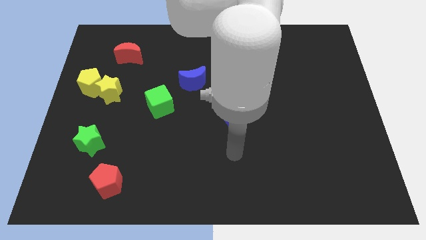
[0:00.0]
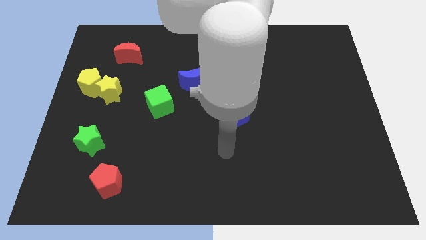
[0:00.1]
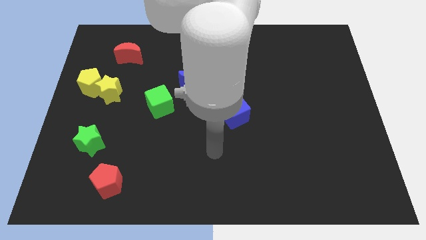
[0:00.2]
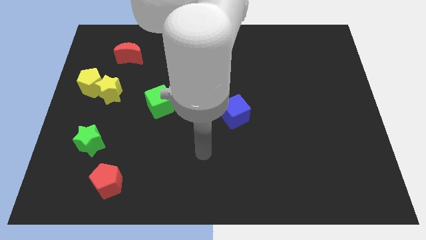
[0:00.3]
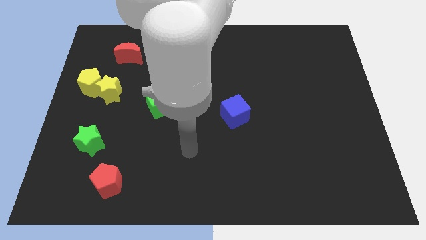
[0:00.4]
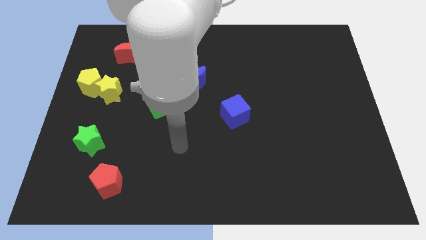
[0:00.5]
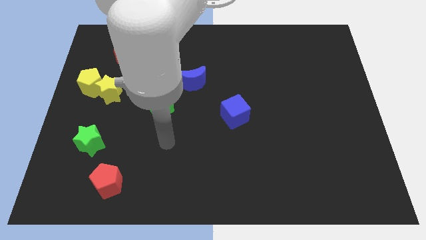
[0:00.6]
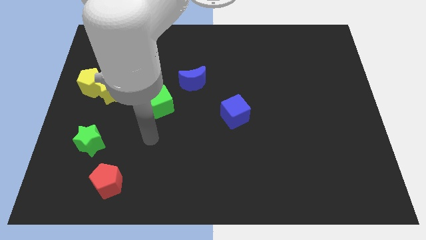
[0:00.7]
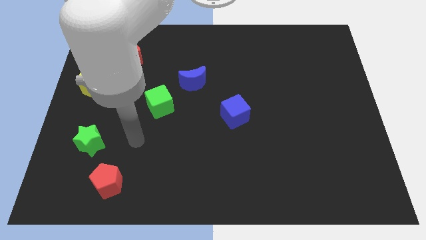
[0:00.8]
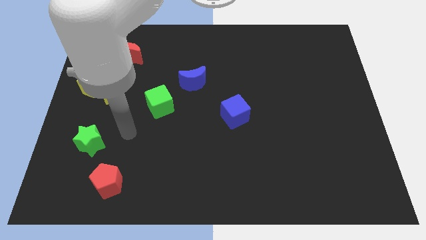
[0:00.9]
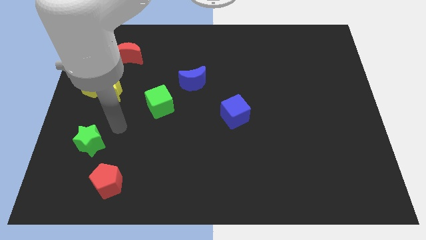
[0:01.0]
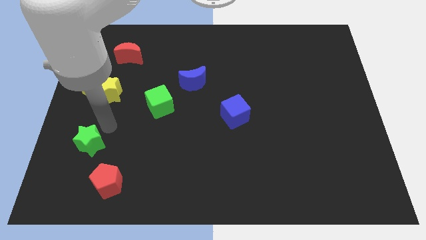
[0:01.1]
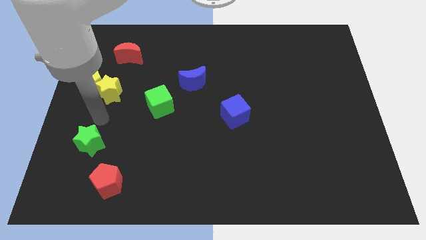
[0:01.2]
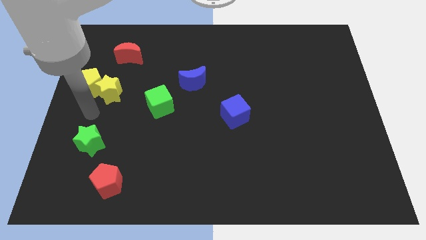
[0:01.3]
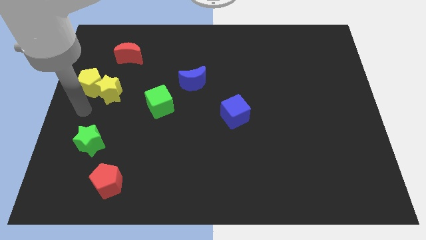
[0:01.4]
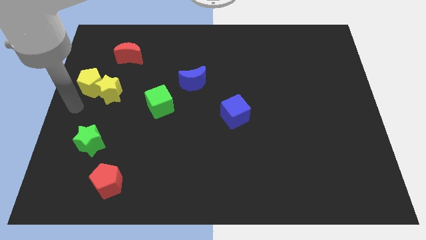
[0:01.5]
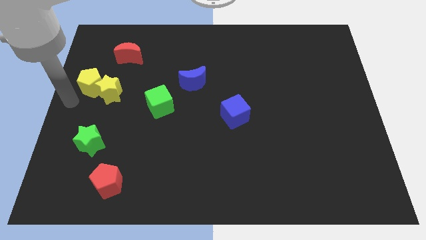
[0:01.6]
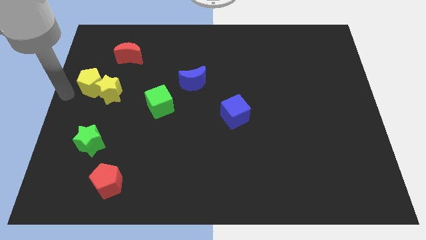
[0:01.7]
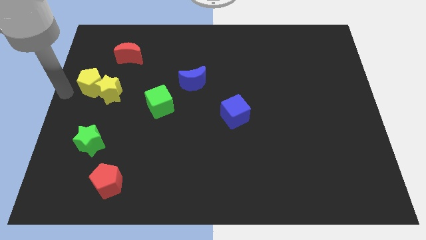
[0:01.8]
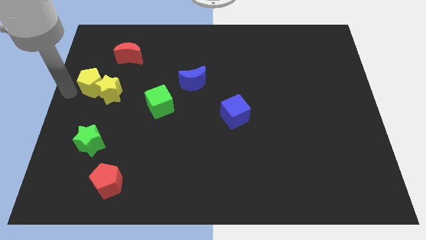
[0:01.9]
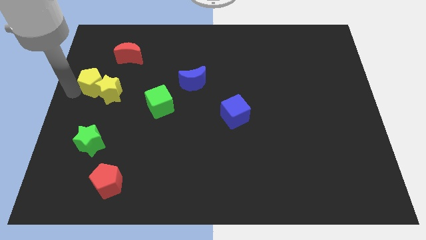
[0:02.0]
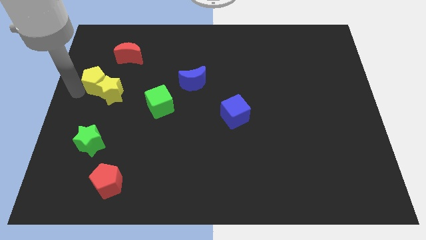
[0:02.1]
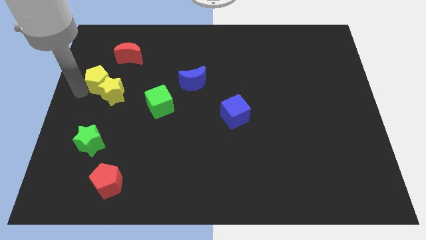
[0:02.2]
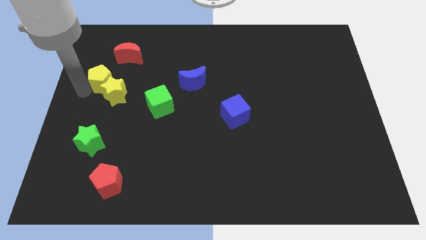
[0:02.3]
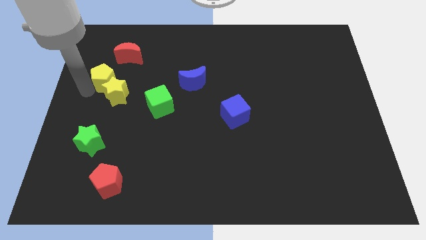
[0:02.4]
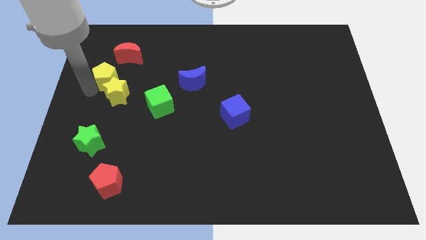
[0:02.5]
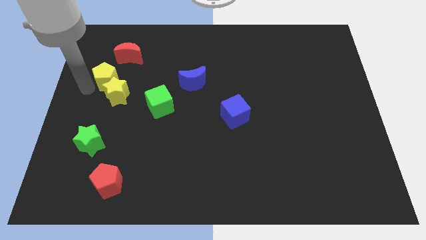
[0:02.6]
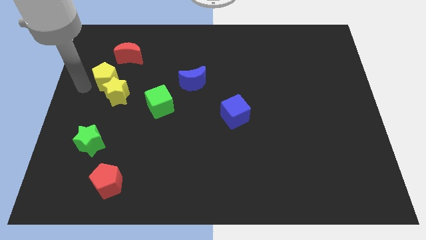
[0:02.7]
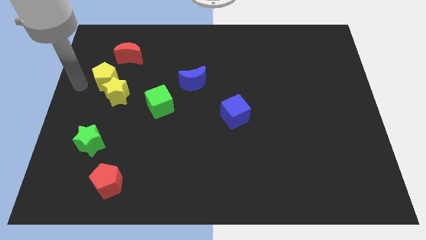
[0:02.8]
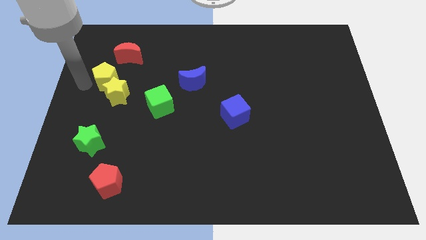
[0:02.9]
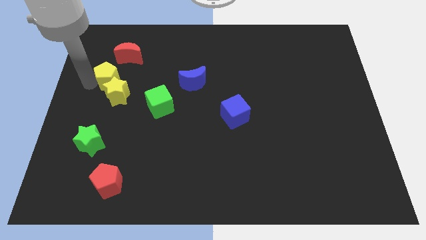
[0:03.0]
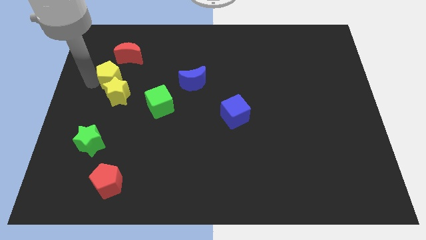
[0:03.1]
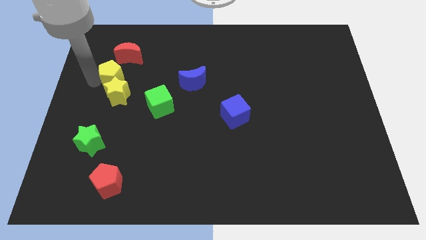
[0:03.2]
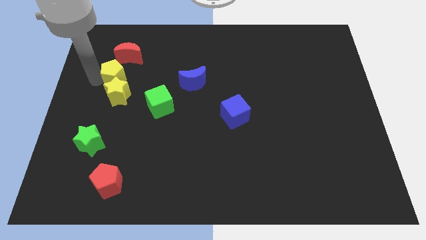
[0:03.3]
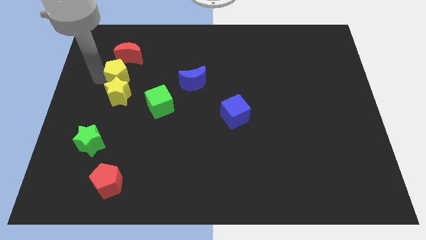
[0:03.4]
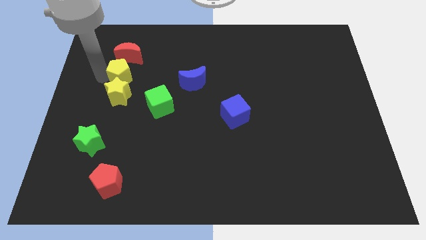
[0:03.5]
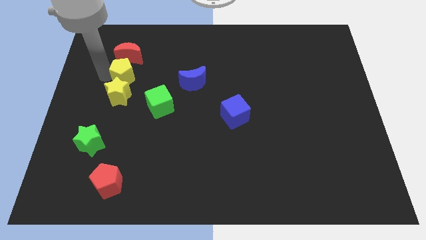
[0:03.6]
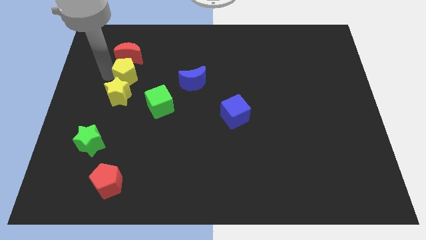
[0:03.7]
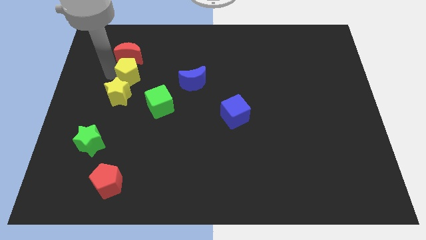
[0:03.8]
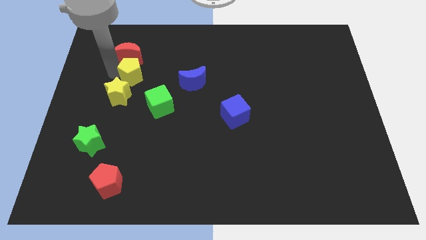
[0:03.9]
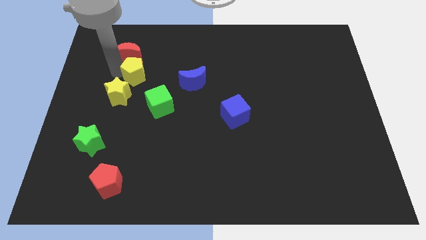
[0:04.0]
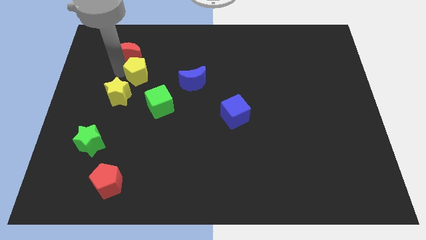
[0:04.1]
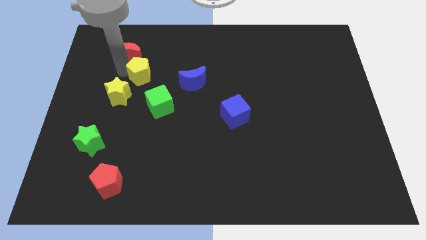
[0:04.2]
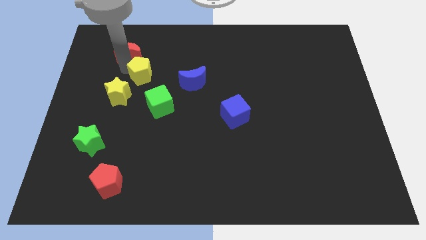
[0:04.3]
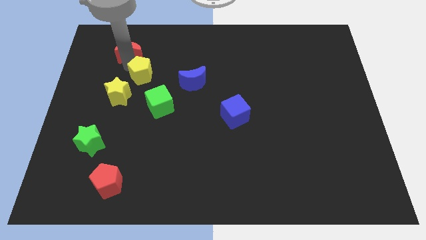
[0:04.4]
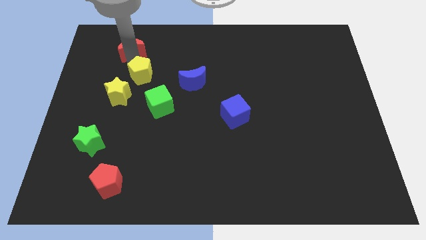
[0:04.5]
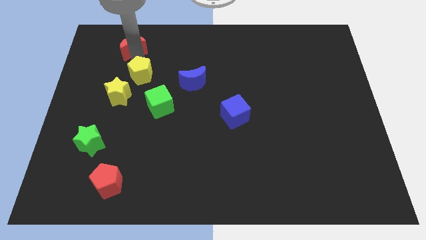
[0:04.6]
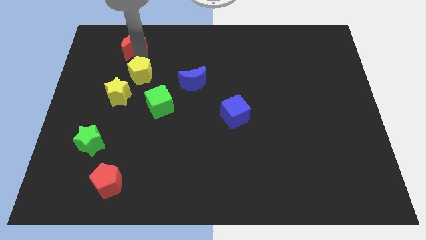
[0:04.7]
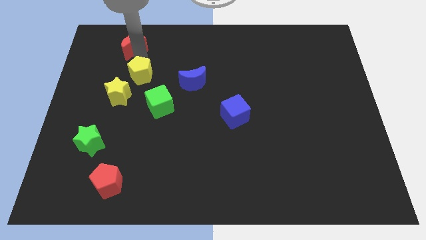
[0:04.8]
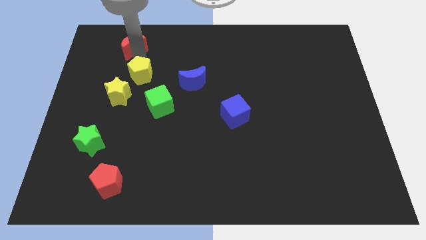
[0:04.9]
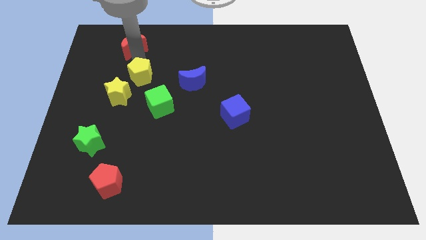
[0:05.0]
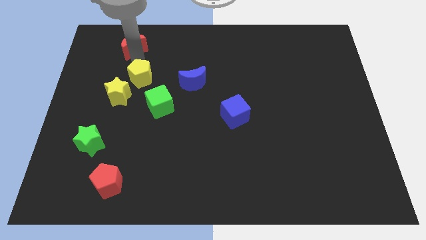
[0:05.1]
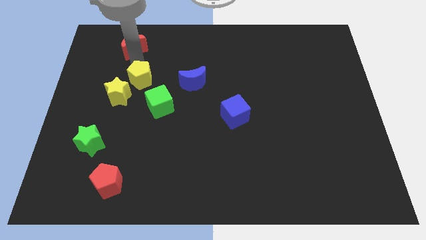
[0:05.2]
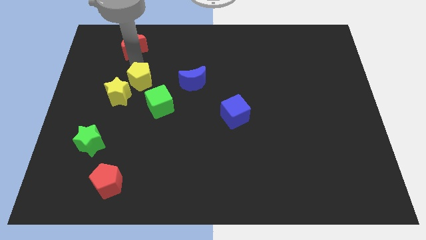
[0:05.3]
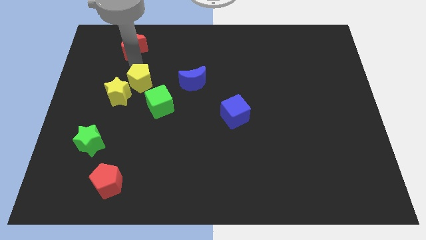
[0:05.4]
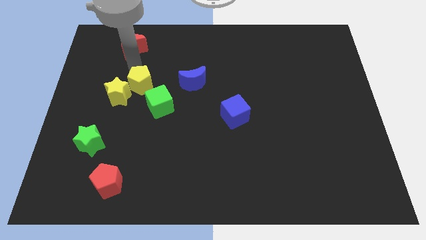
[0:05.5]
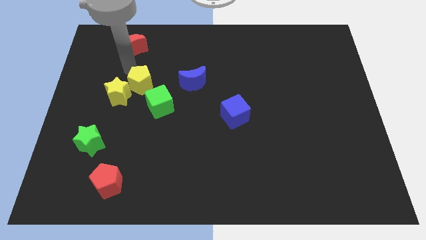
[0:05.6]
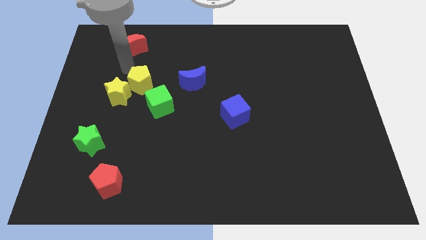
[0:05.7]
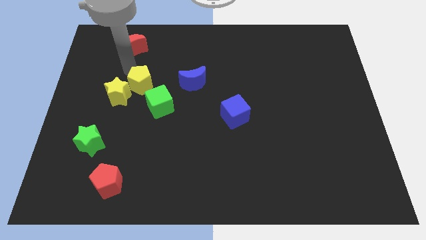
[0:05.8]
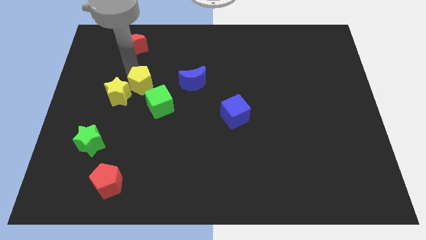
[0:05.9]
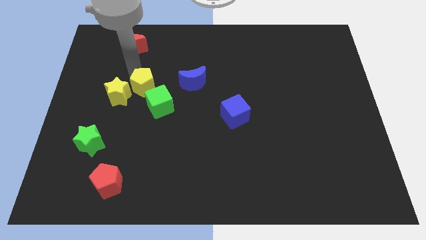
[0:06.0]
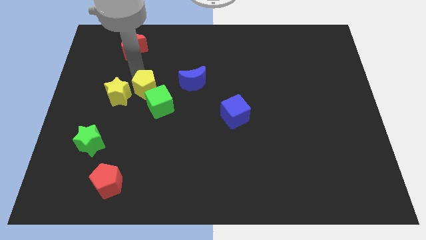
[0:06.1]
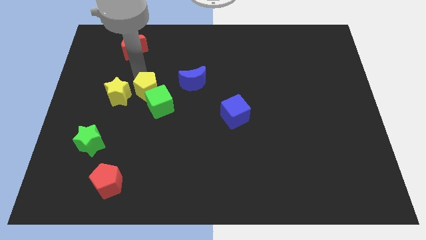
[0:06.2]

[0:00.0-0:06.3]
move the yellow pentagon close to the green cube
